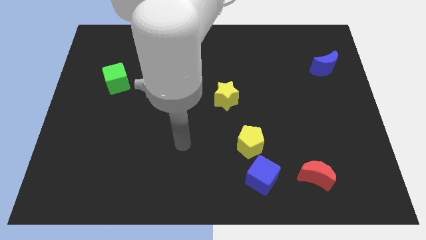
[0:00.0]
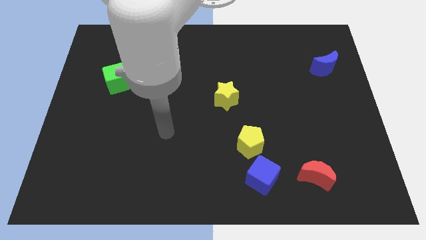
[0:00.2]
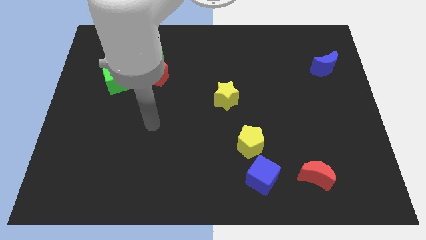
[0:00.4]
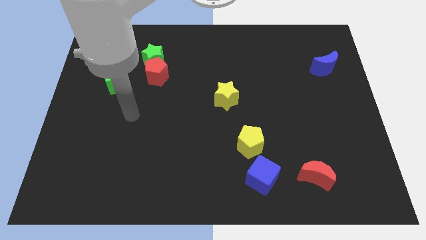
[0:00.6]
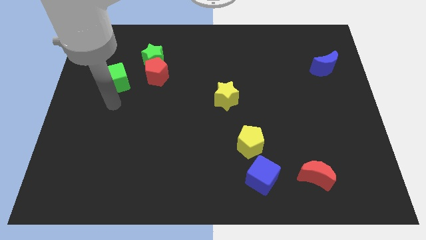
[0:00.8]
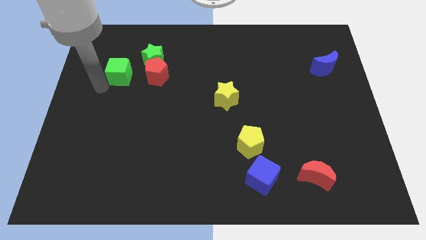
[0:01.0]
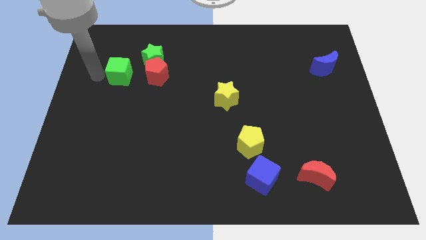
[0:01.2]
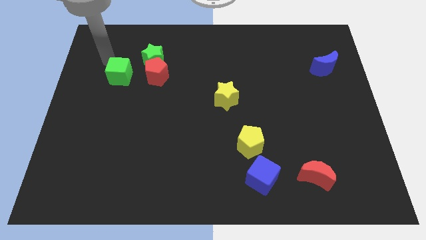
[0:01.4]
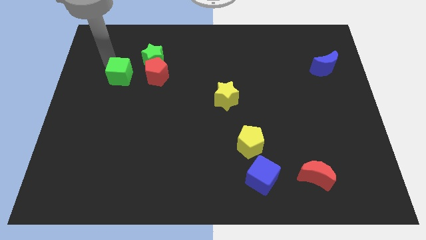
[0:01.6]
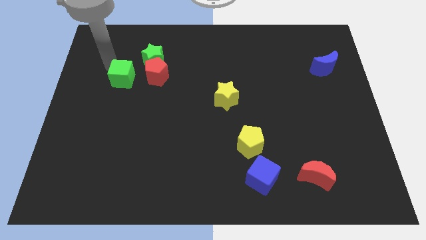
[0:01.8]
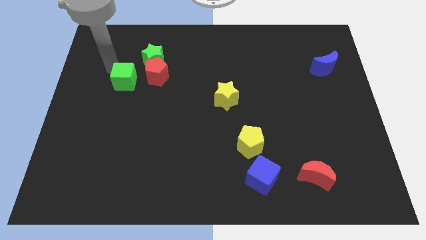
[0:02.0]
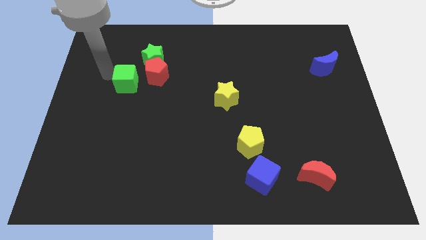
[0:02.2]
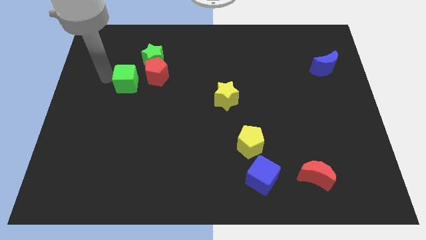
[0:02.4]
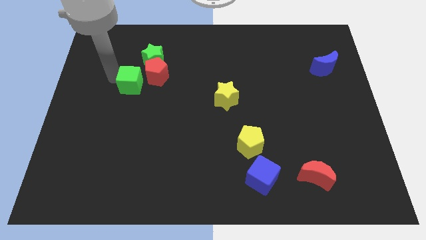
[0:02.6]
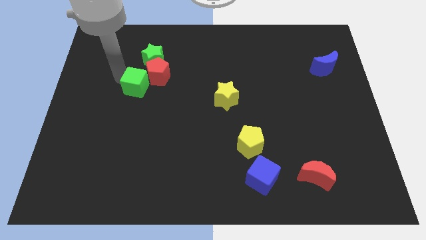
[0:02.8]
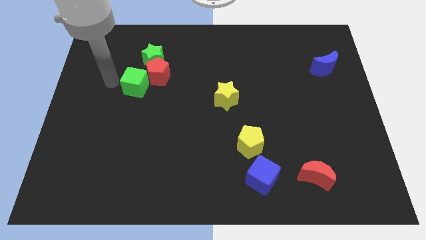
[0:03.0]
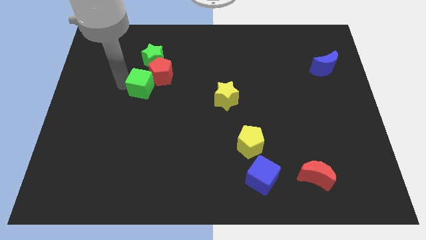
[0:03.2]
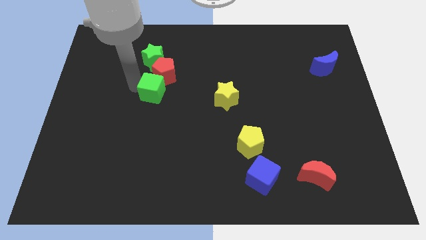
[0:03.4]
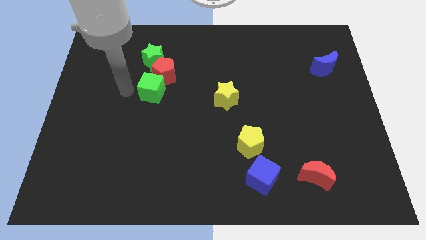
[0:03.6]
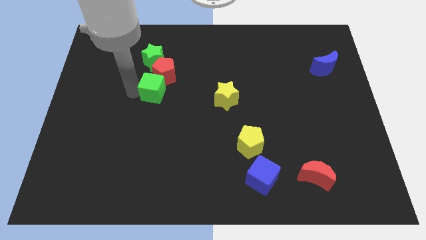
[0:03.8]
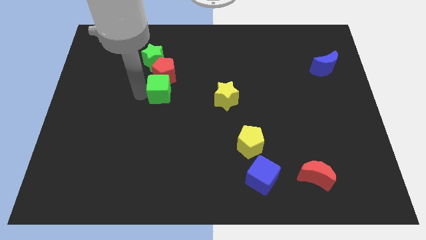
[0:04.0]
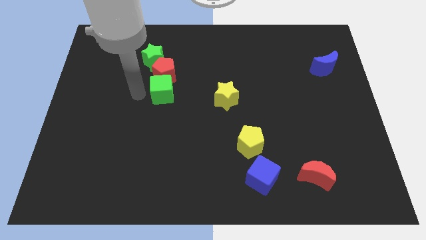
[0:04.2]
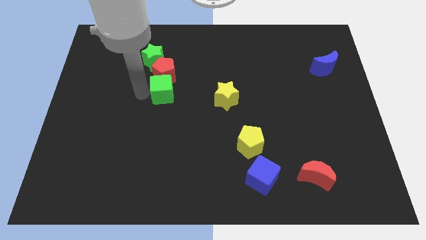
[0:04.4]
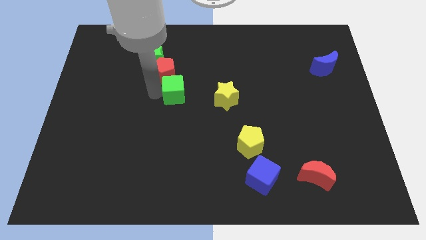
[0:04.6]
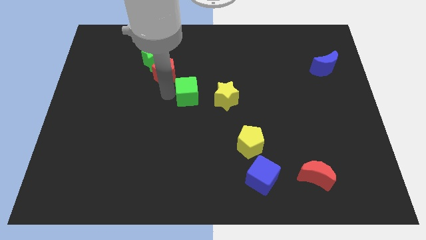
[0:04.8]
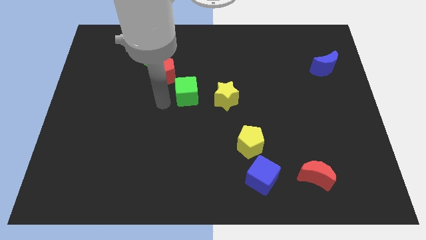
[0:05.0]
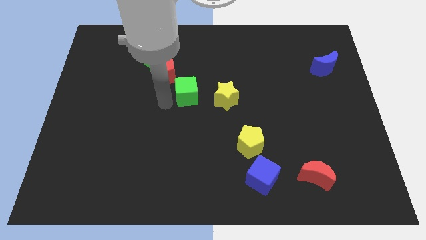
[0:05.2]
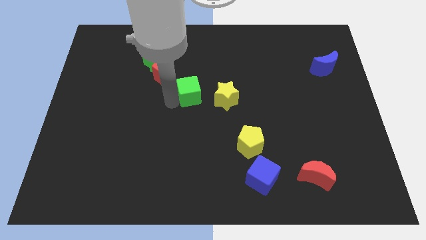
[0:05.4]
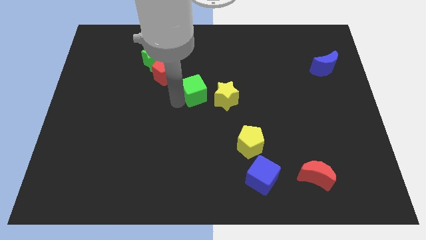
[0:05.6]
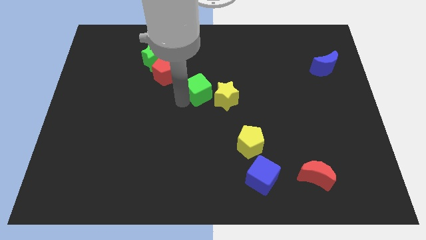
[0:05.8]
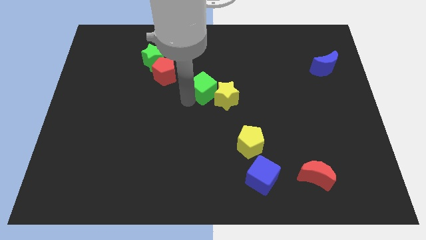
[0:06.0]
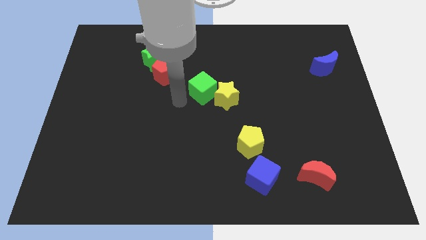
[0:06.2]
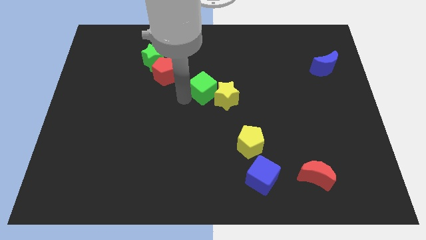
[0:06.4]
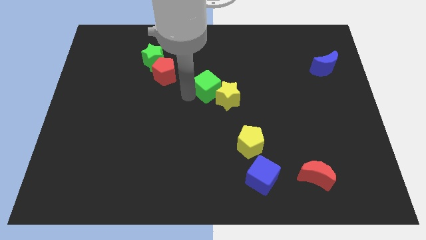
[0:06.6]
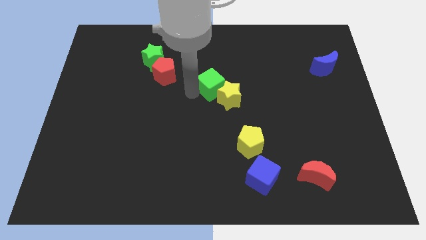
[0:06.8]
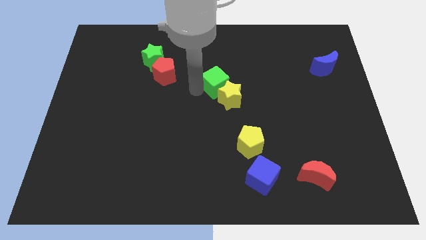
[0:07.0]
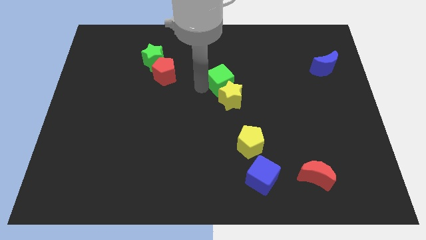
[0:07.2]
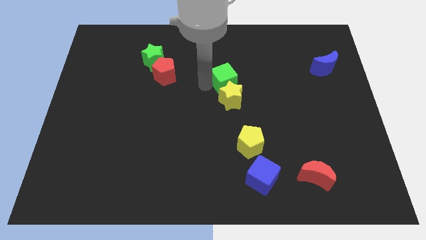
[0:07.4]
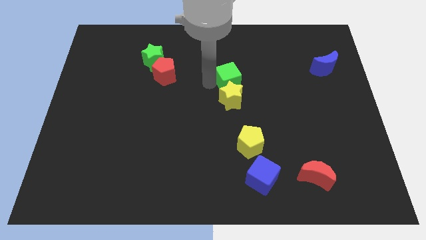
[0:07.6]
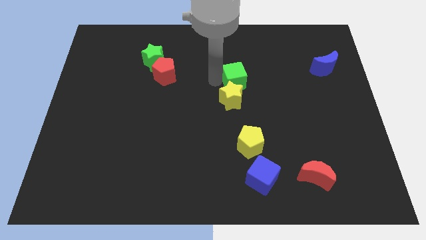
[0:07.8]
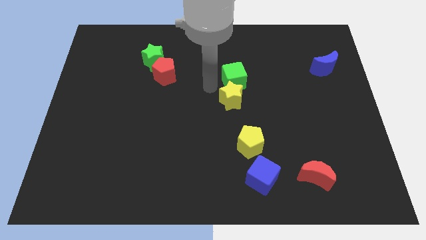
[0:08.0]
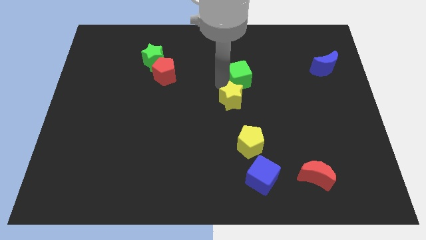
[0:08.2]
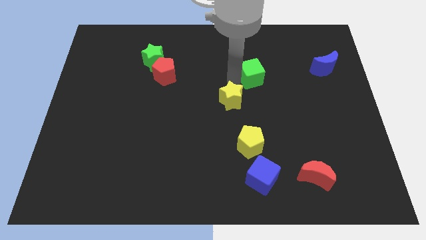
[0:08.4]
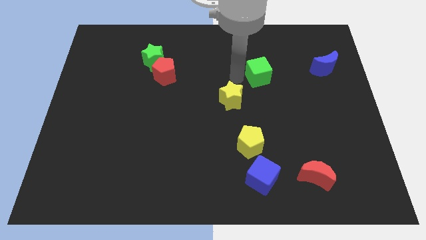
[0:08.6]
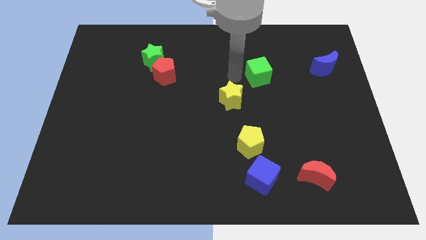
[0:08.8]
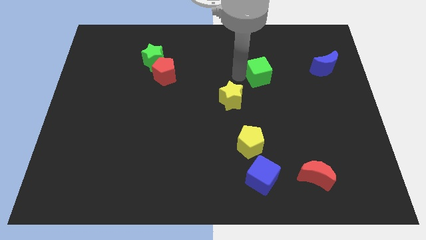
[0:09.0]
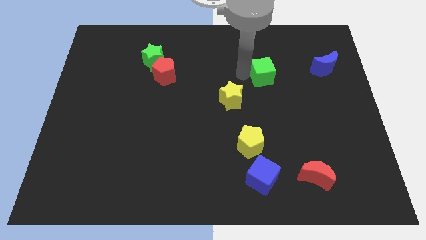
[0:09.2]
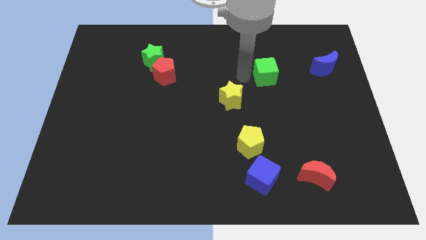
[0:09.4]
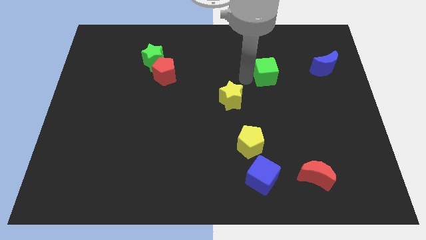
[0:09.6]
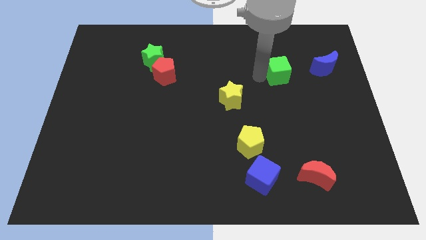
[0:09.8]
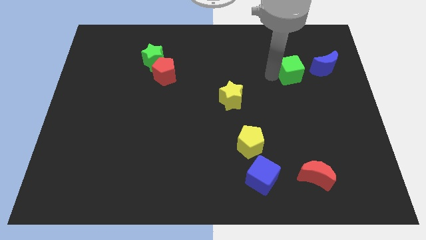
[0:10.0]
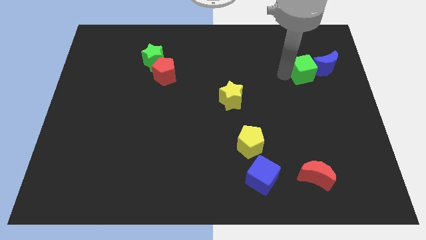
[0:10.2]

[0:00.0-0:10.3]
push the green cube to the blue moon

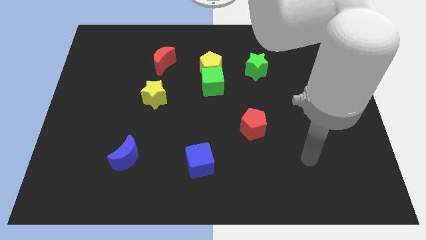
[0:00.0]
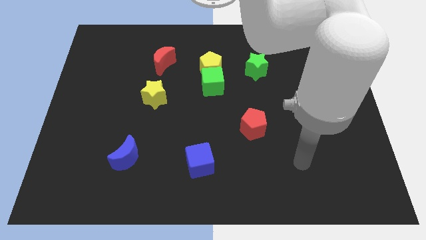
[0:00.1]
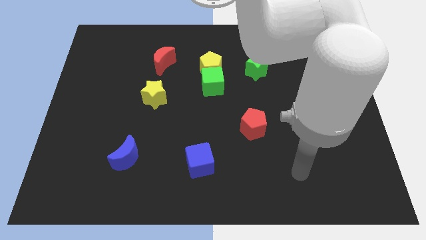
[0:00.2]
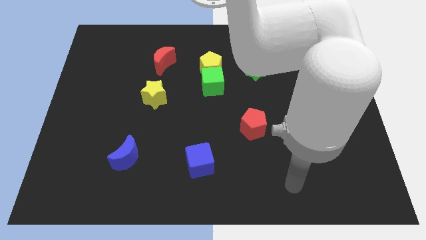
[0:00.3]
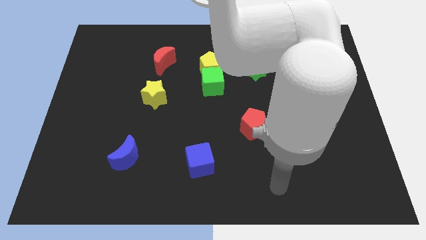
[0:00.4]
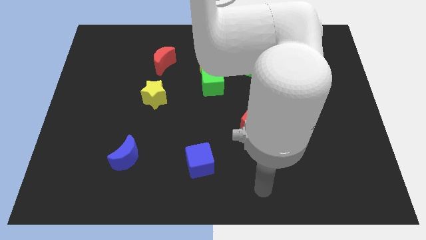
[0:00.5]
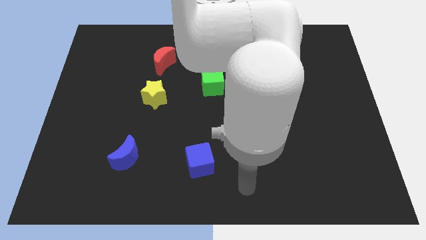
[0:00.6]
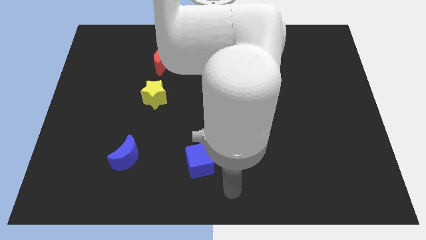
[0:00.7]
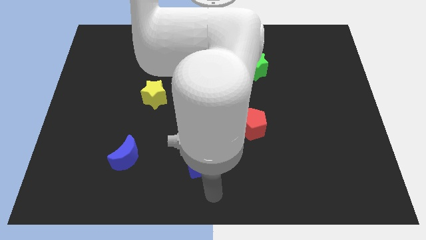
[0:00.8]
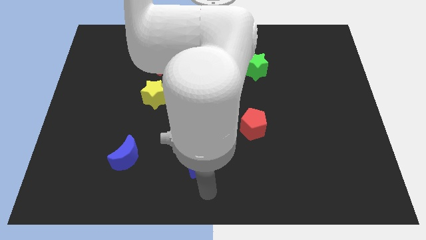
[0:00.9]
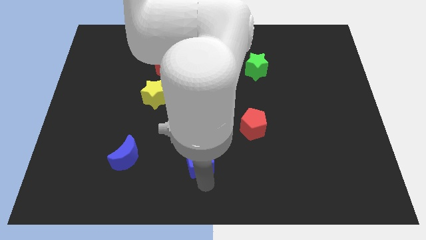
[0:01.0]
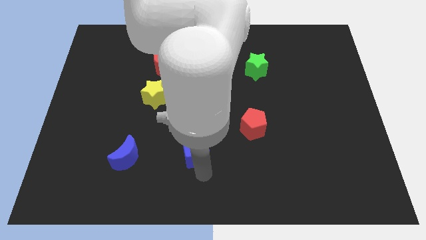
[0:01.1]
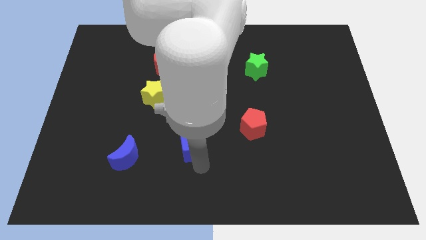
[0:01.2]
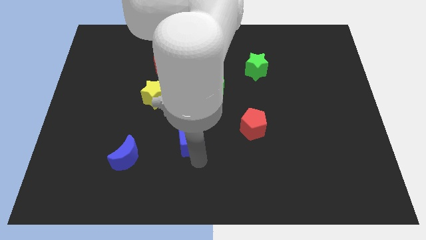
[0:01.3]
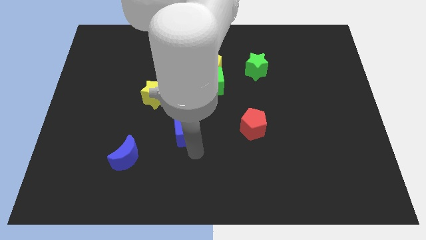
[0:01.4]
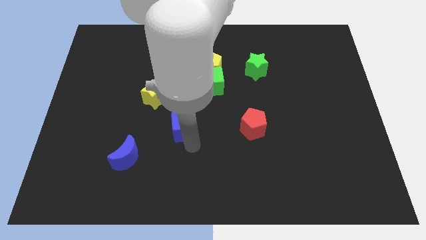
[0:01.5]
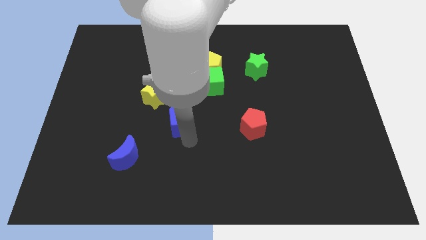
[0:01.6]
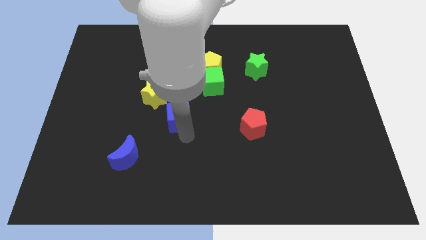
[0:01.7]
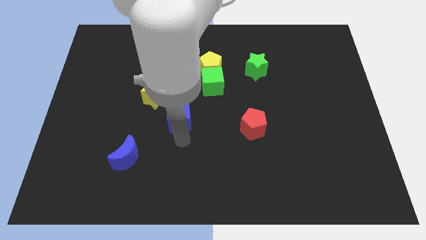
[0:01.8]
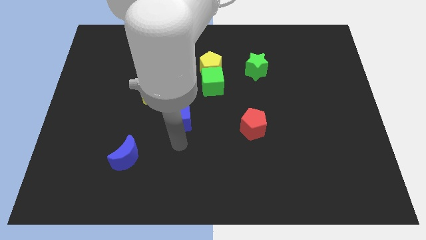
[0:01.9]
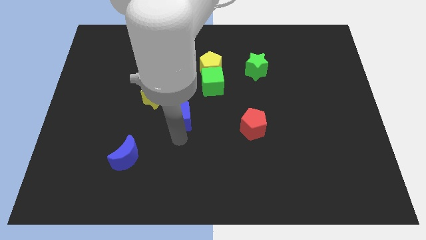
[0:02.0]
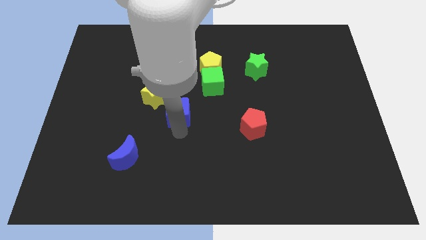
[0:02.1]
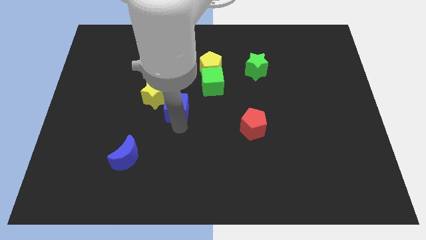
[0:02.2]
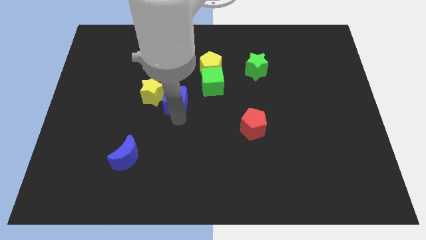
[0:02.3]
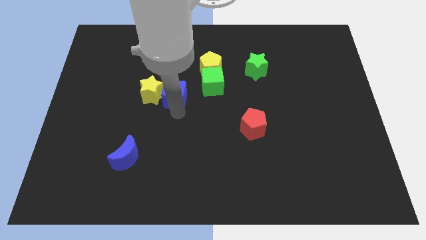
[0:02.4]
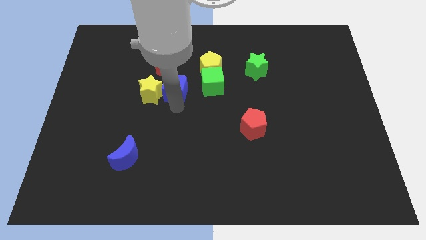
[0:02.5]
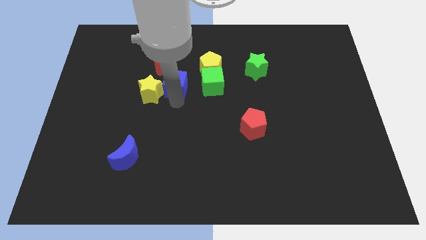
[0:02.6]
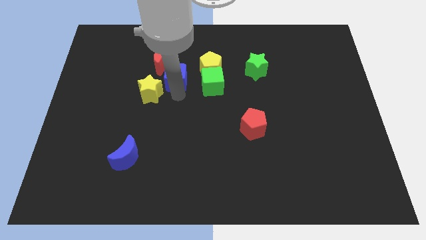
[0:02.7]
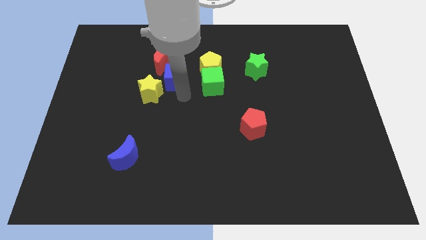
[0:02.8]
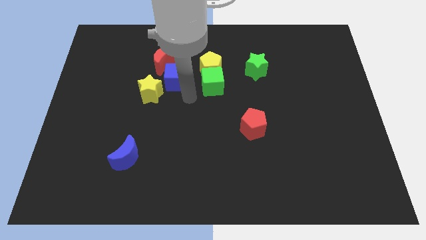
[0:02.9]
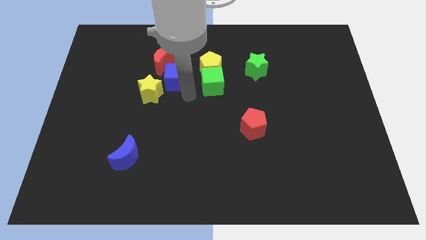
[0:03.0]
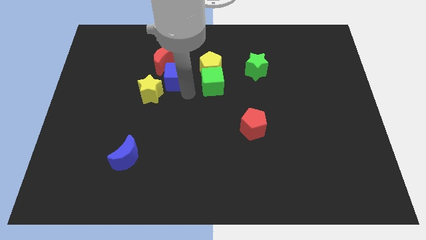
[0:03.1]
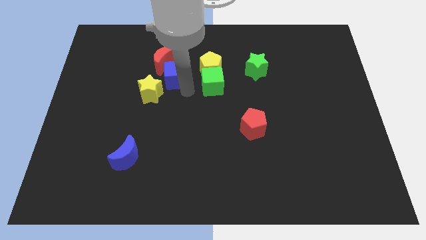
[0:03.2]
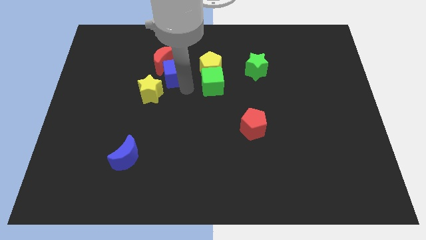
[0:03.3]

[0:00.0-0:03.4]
push the blue cube next to the red moon
